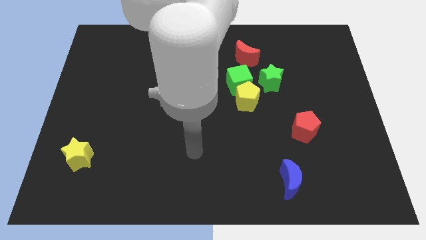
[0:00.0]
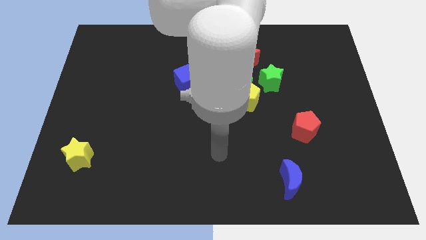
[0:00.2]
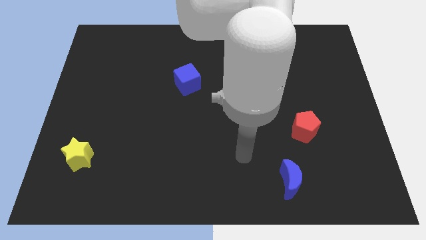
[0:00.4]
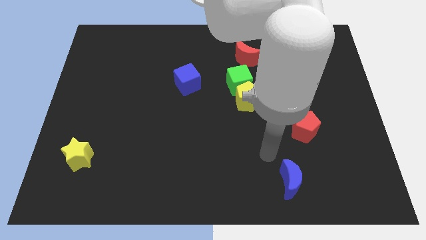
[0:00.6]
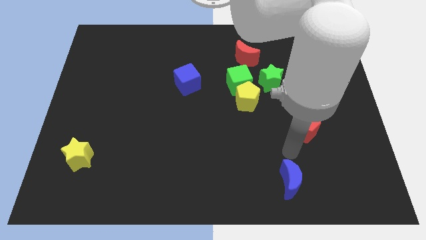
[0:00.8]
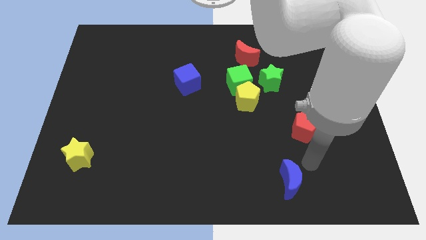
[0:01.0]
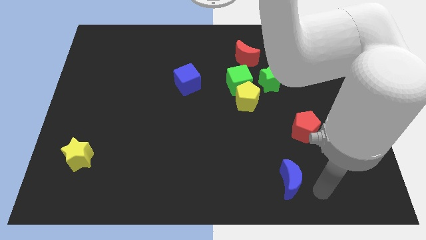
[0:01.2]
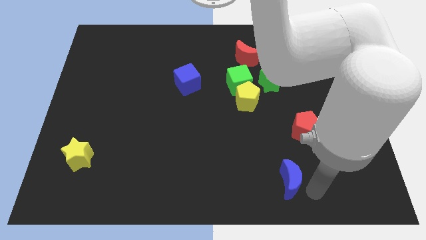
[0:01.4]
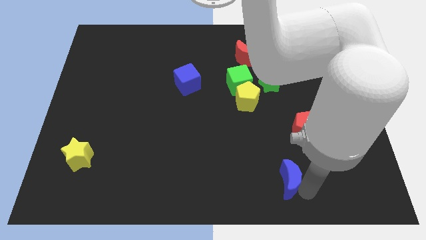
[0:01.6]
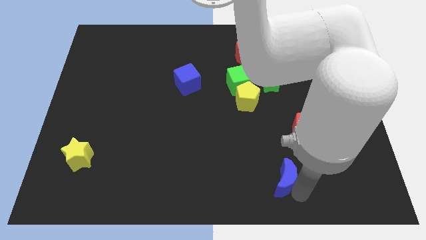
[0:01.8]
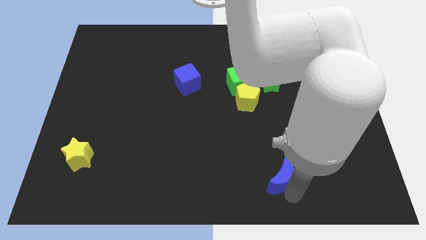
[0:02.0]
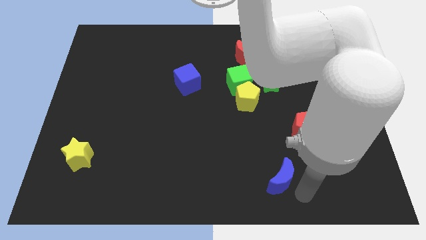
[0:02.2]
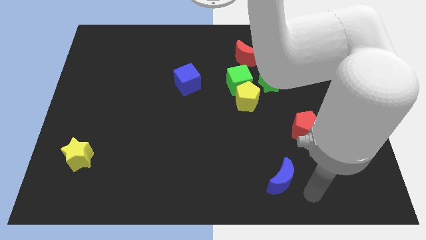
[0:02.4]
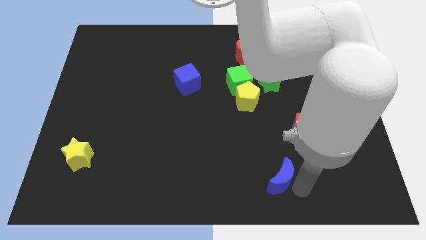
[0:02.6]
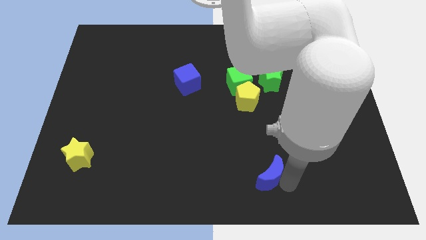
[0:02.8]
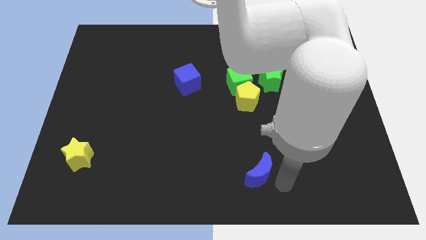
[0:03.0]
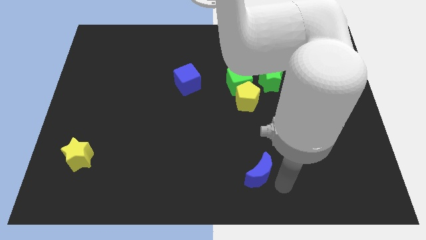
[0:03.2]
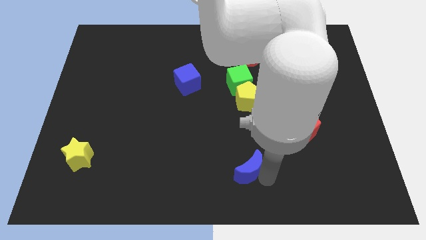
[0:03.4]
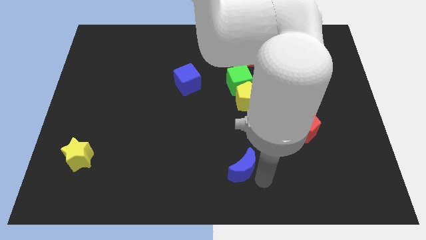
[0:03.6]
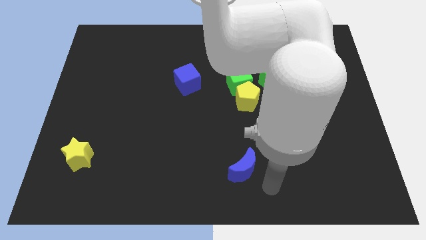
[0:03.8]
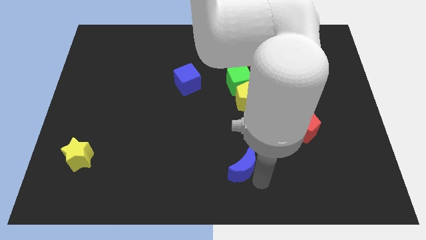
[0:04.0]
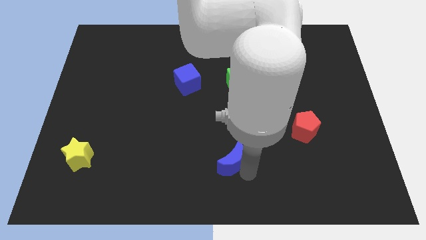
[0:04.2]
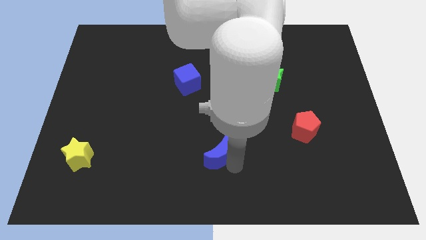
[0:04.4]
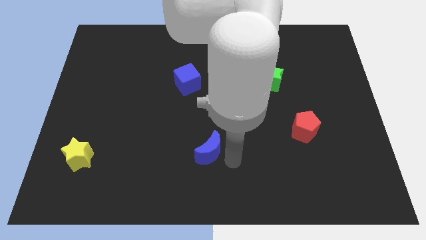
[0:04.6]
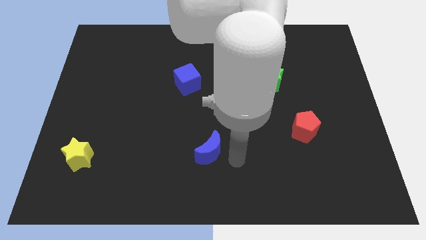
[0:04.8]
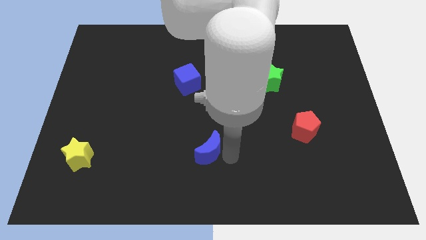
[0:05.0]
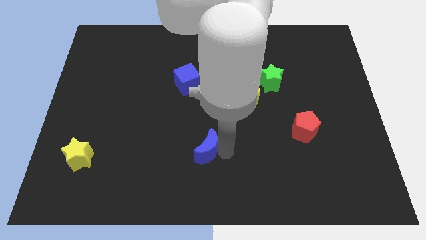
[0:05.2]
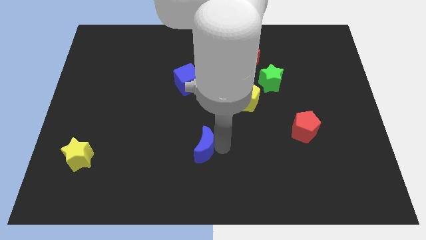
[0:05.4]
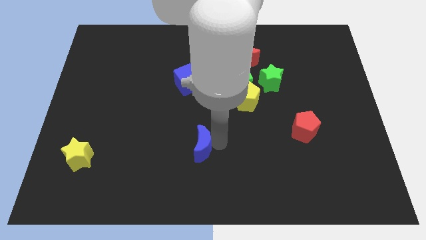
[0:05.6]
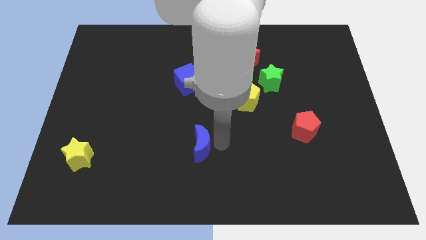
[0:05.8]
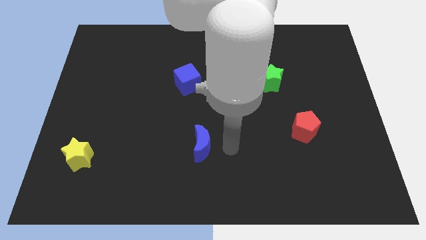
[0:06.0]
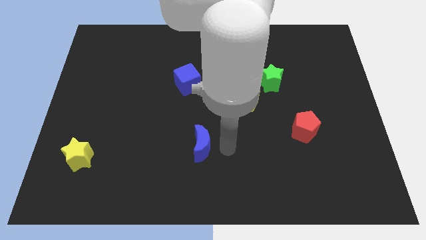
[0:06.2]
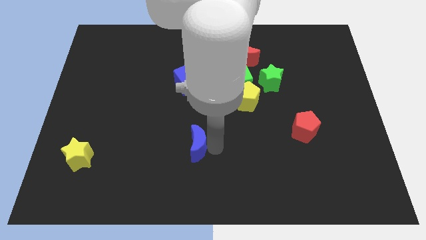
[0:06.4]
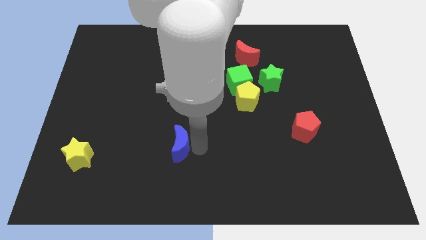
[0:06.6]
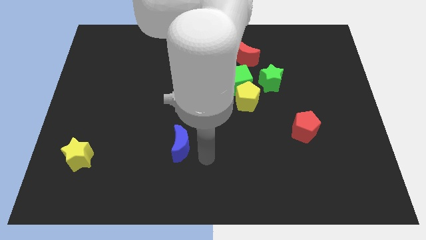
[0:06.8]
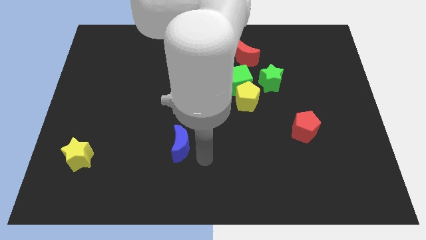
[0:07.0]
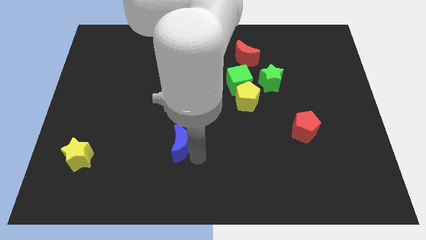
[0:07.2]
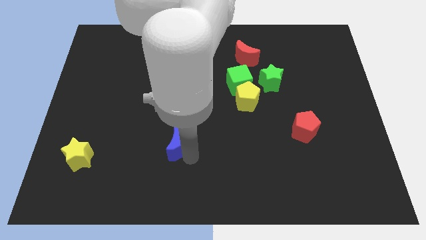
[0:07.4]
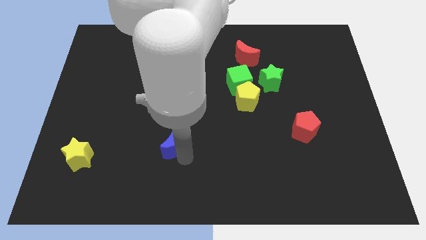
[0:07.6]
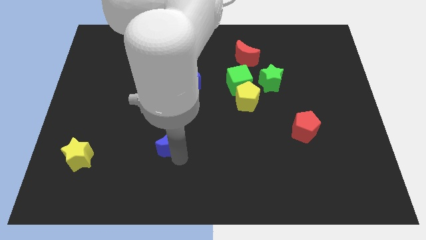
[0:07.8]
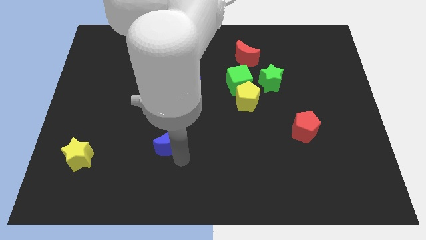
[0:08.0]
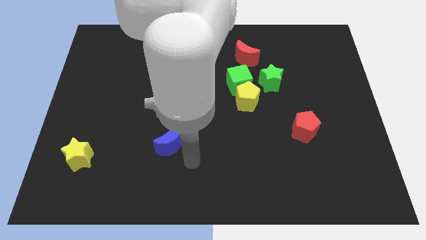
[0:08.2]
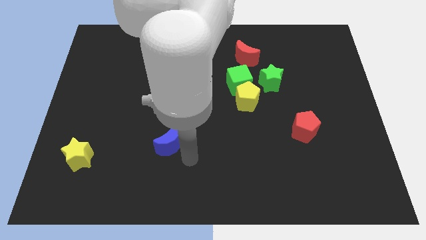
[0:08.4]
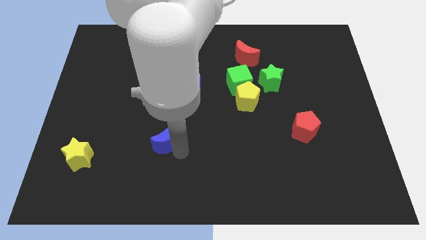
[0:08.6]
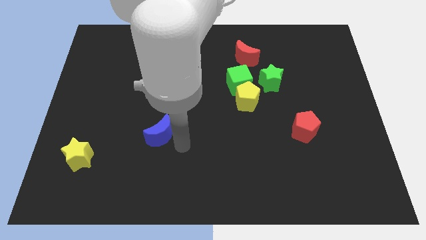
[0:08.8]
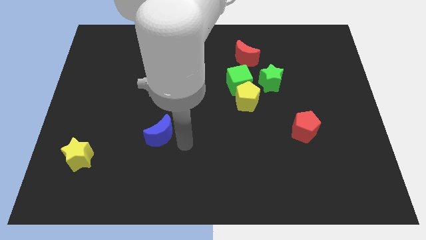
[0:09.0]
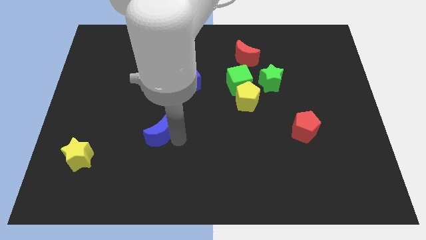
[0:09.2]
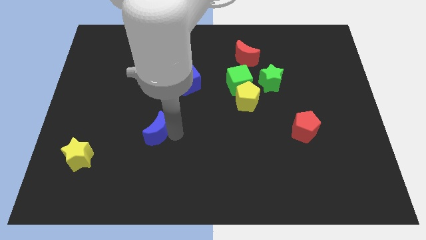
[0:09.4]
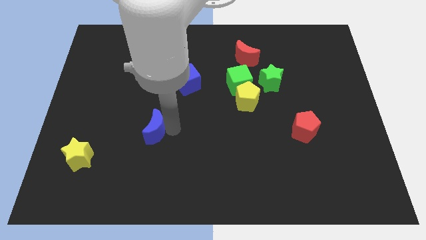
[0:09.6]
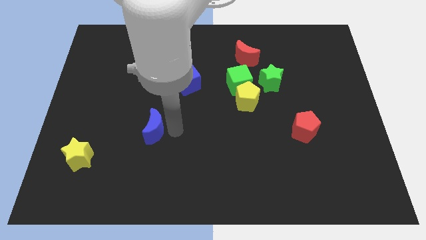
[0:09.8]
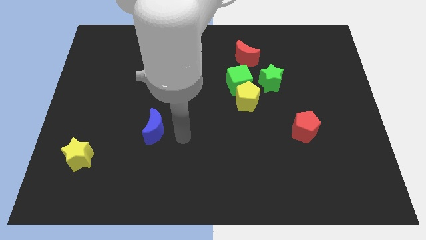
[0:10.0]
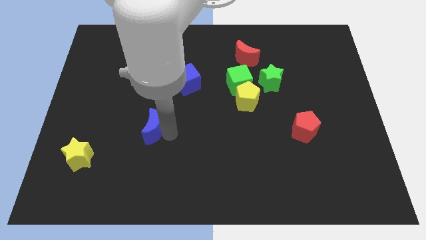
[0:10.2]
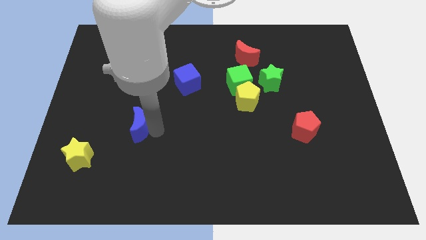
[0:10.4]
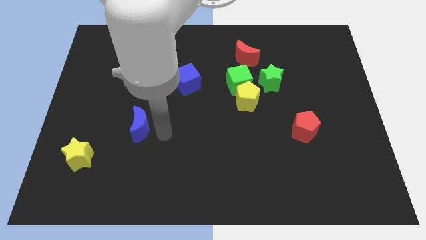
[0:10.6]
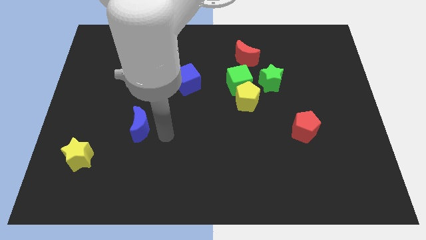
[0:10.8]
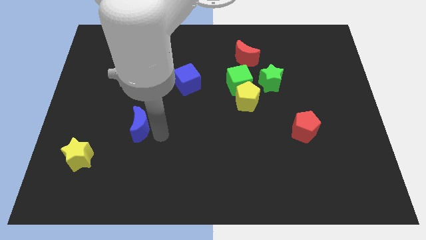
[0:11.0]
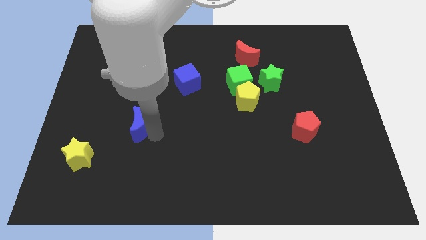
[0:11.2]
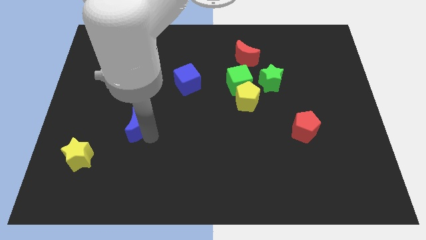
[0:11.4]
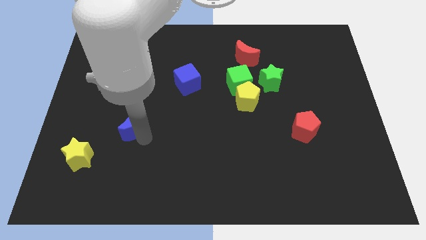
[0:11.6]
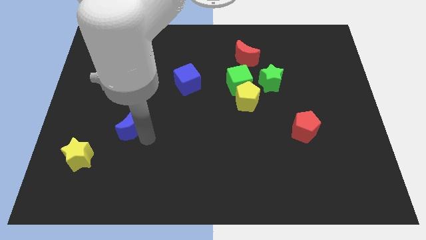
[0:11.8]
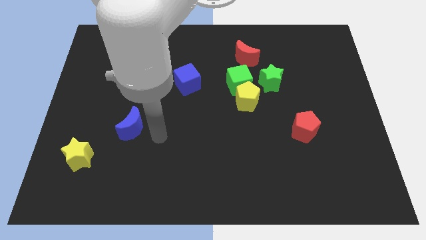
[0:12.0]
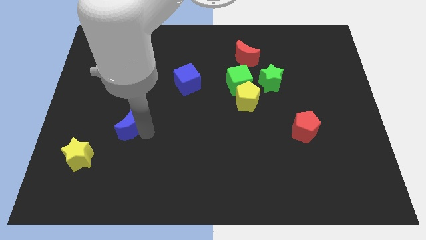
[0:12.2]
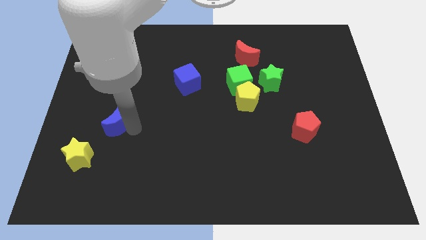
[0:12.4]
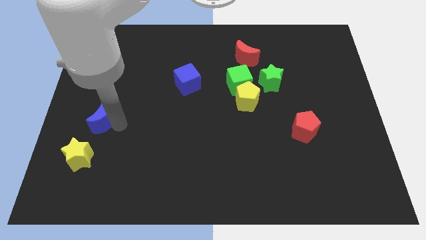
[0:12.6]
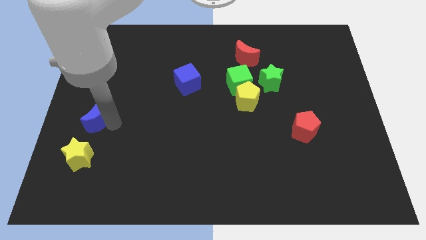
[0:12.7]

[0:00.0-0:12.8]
slide the blue moon to the left side
